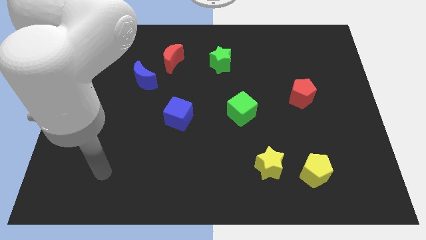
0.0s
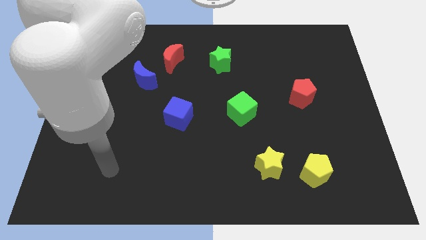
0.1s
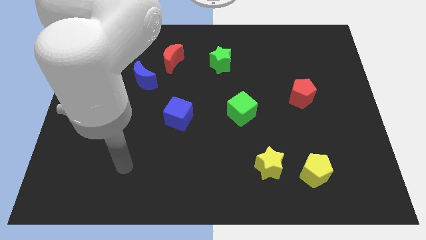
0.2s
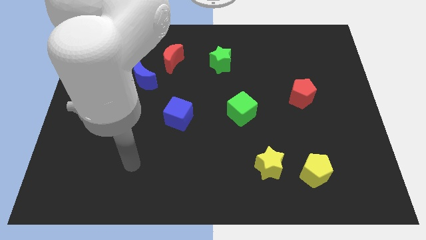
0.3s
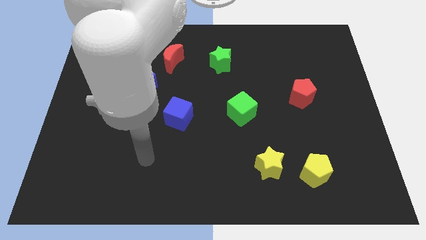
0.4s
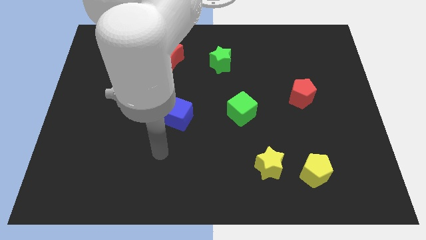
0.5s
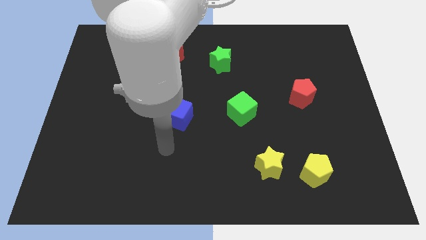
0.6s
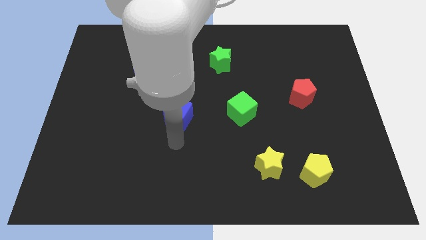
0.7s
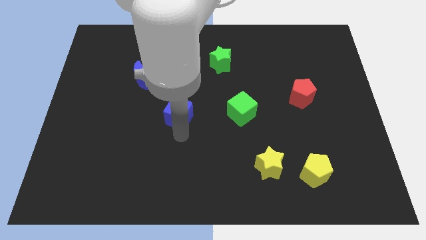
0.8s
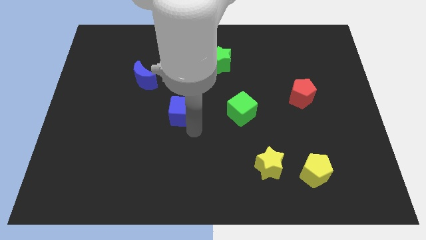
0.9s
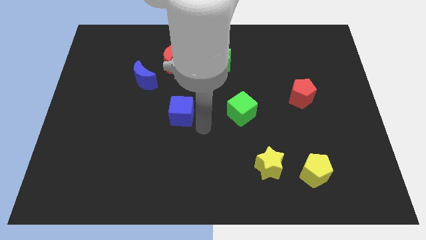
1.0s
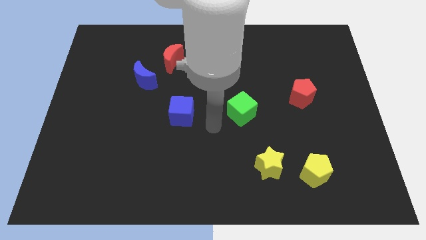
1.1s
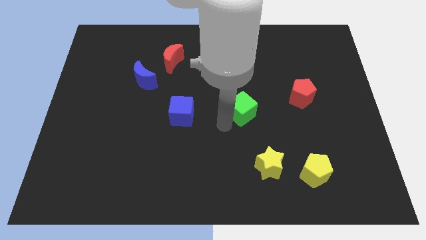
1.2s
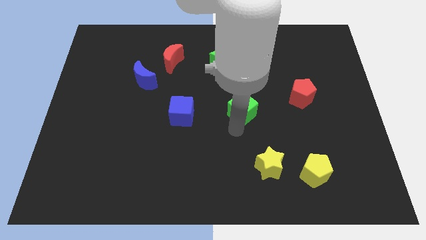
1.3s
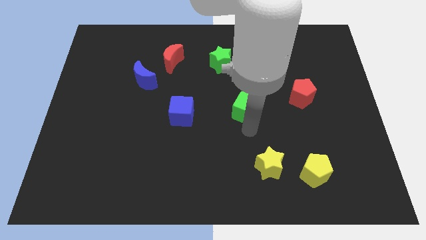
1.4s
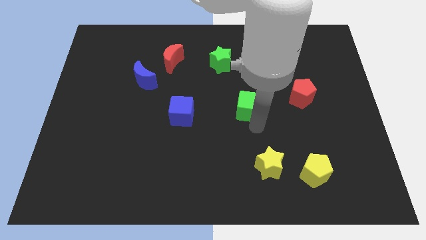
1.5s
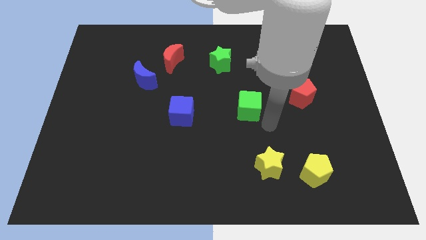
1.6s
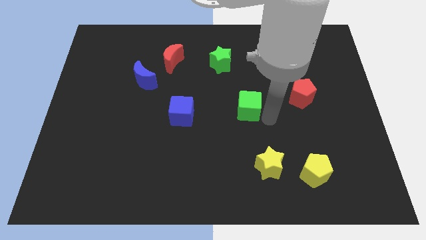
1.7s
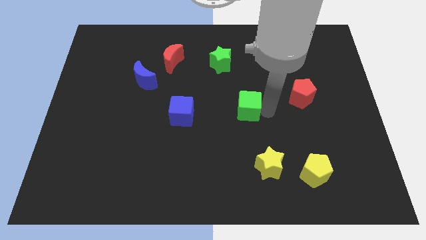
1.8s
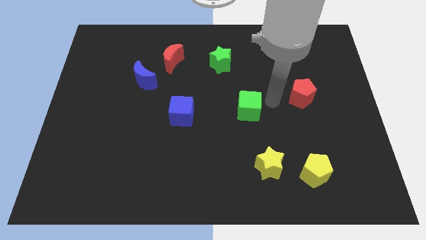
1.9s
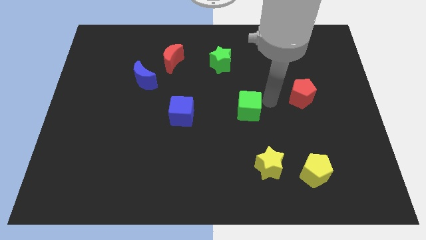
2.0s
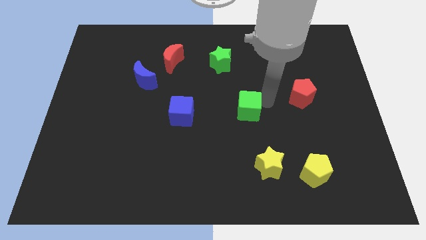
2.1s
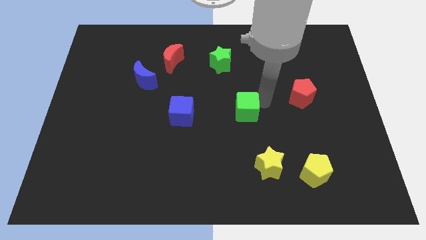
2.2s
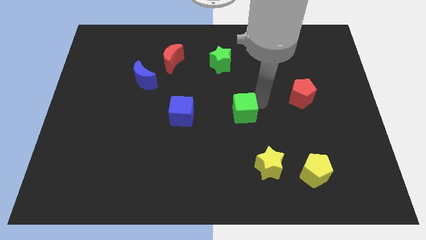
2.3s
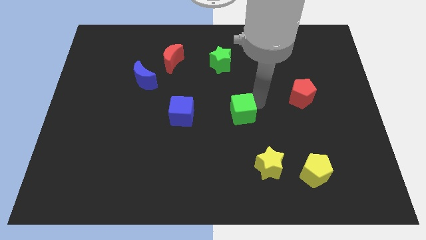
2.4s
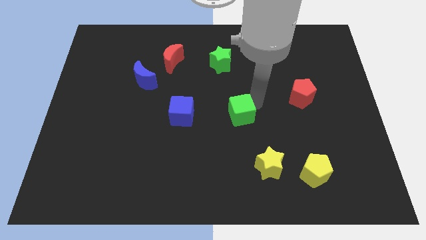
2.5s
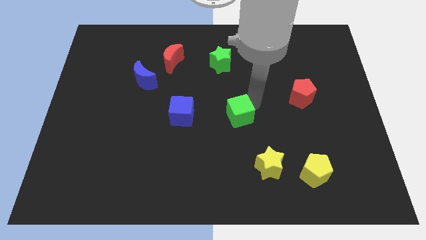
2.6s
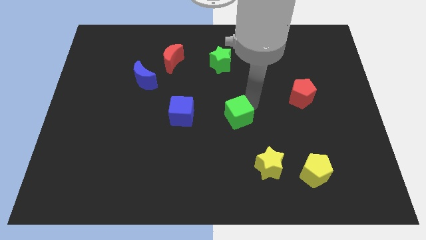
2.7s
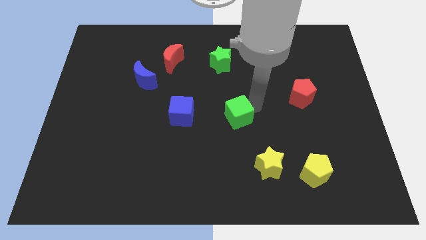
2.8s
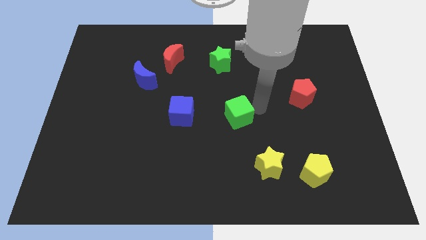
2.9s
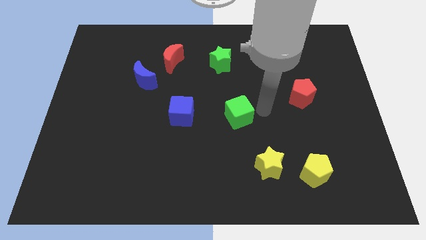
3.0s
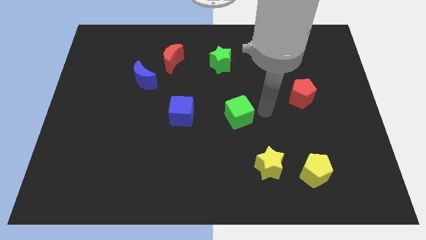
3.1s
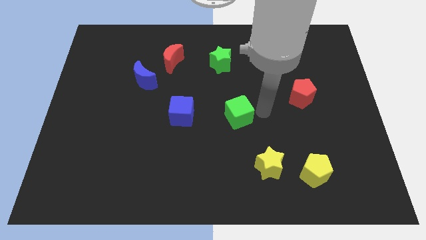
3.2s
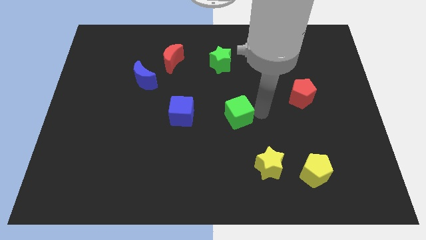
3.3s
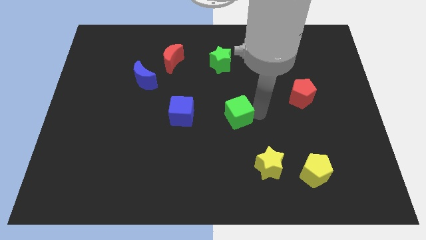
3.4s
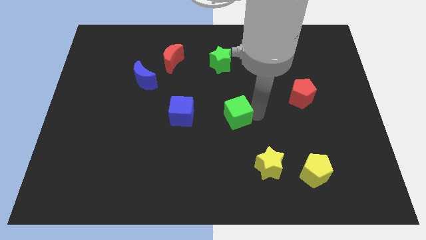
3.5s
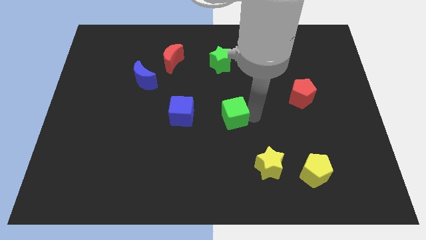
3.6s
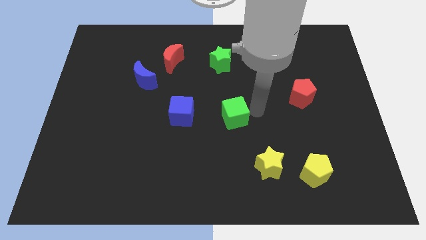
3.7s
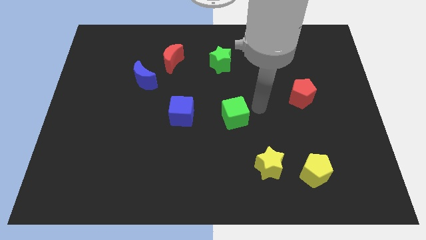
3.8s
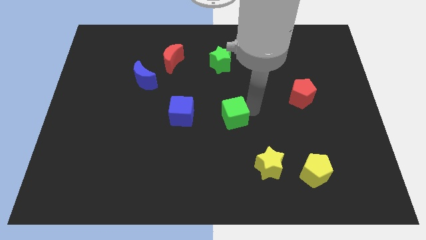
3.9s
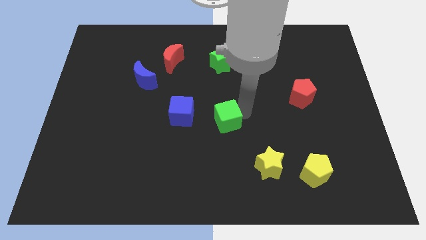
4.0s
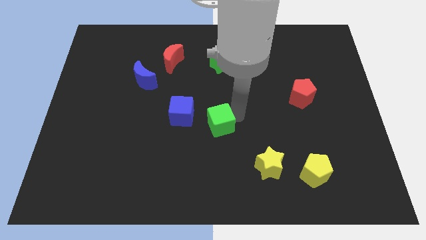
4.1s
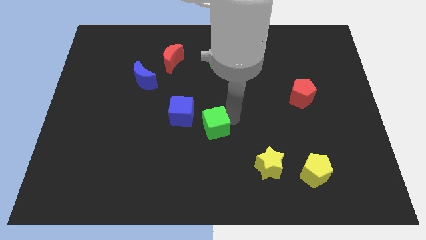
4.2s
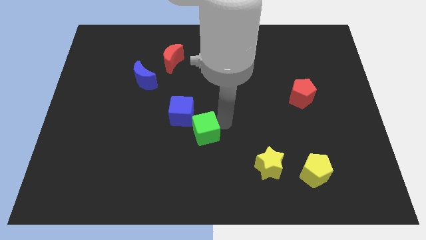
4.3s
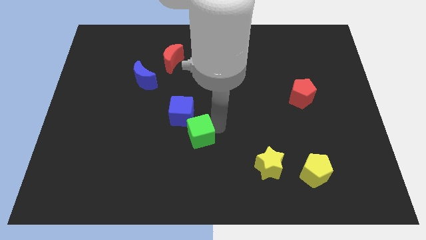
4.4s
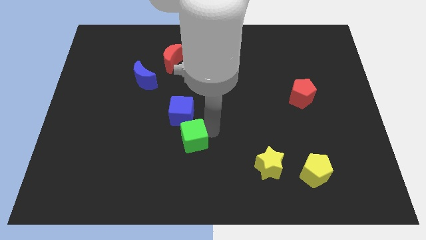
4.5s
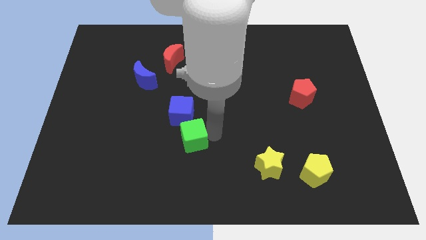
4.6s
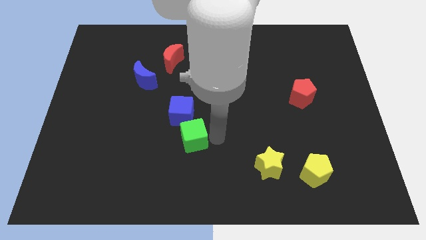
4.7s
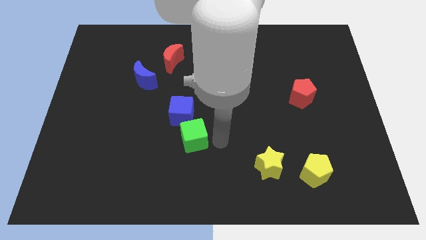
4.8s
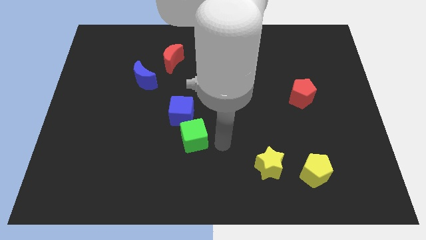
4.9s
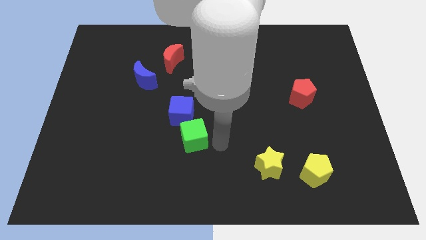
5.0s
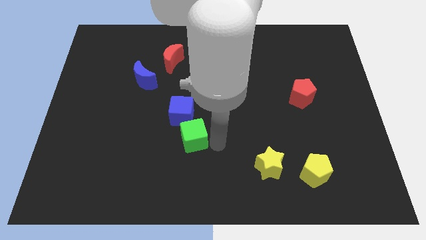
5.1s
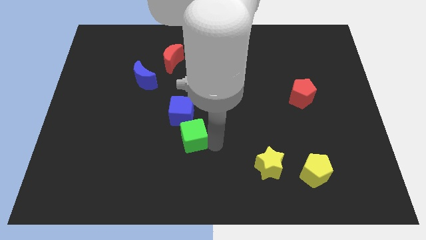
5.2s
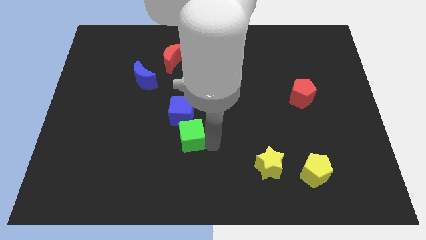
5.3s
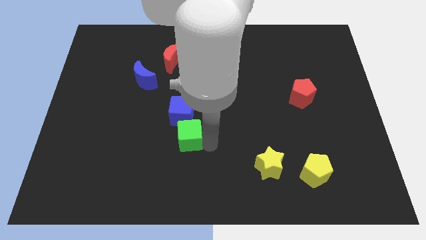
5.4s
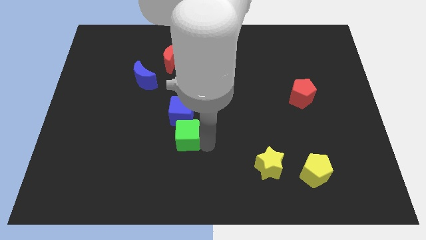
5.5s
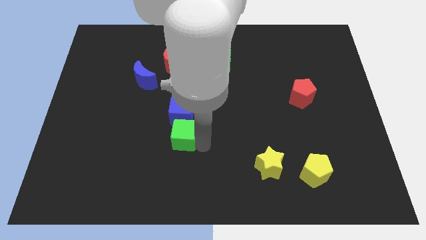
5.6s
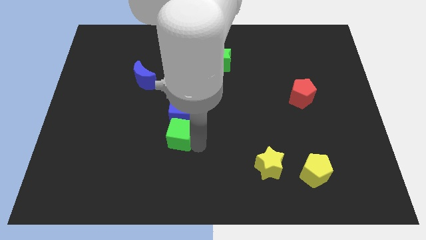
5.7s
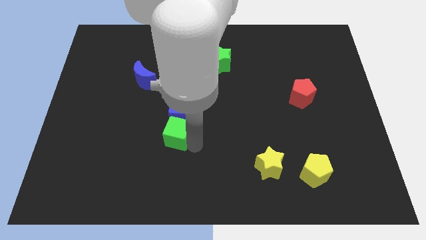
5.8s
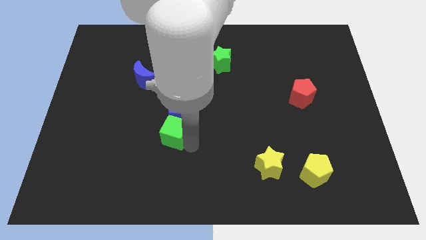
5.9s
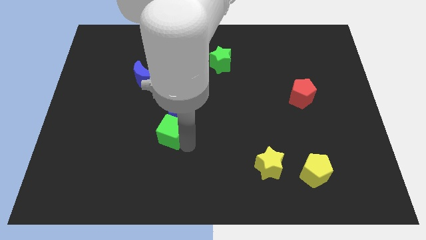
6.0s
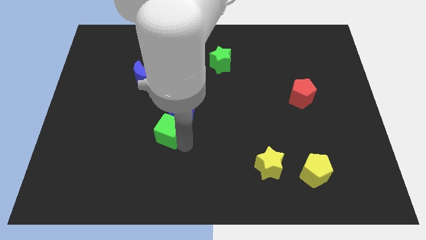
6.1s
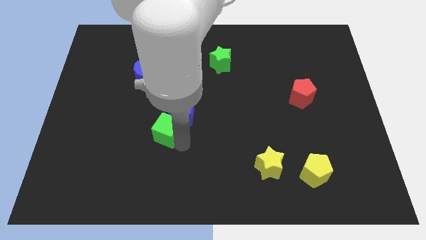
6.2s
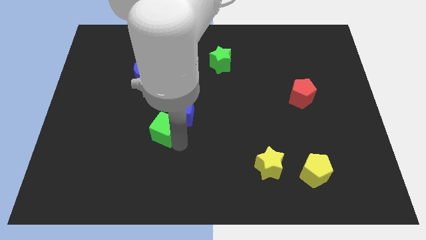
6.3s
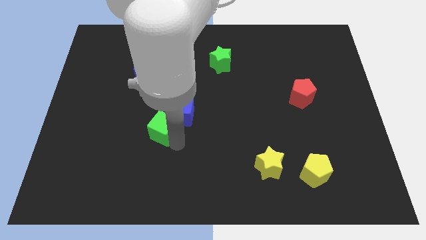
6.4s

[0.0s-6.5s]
push the green cube just left of the blue cube

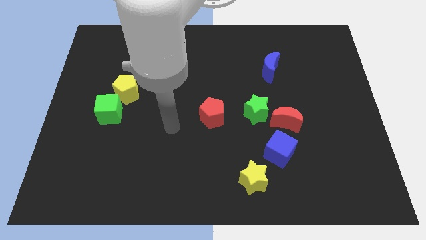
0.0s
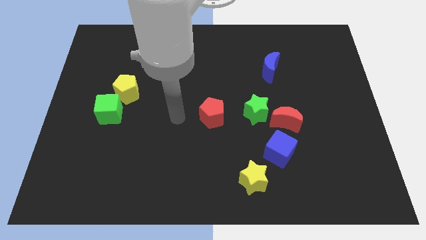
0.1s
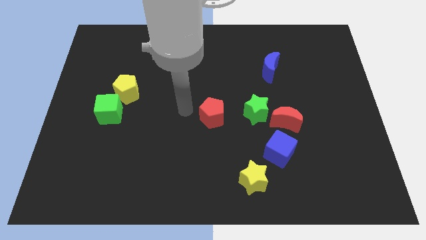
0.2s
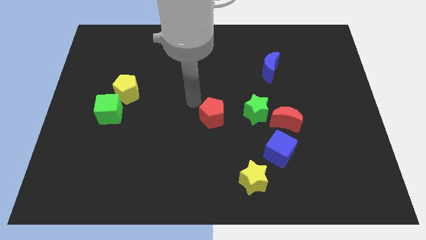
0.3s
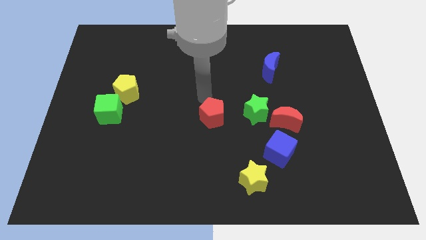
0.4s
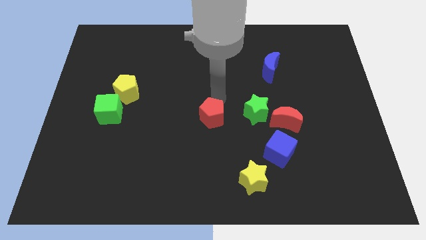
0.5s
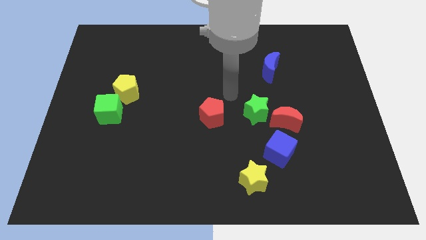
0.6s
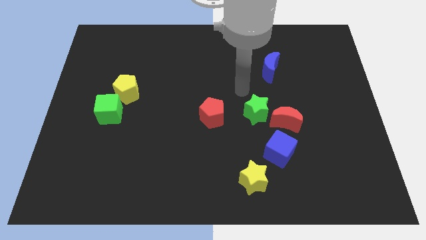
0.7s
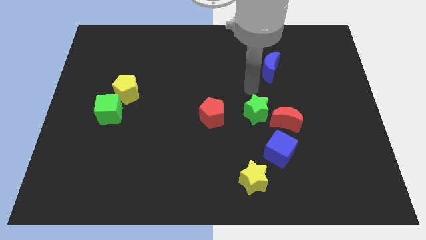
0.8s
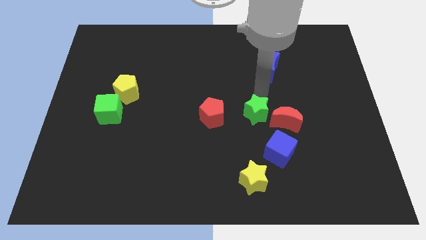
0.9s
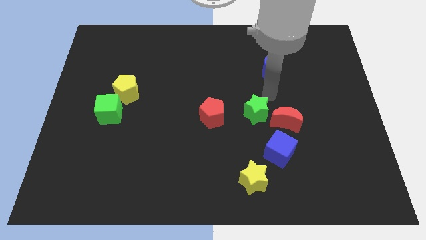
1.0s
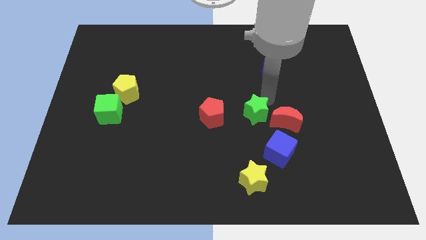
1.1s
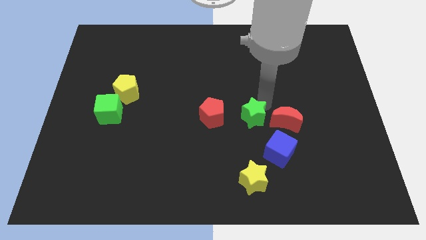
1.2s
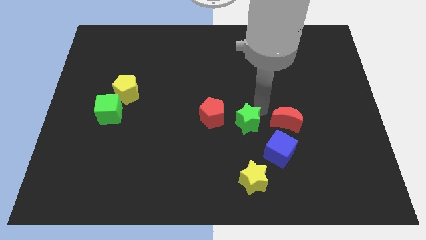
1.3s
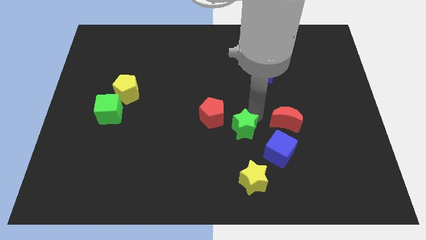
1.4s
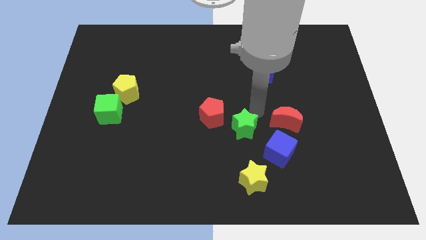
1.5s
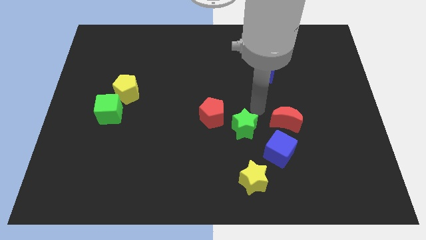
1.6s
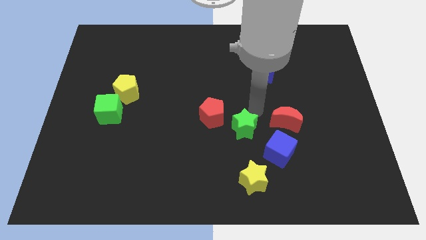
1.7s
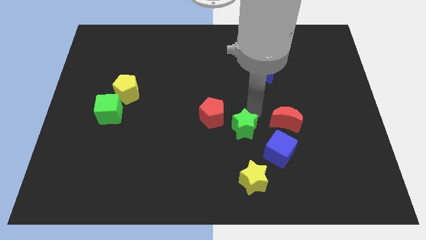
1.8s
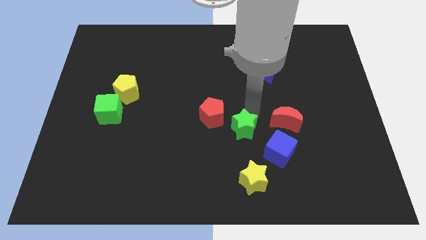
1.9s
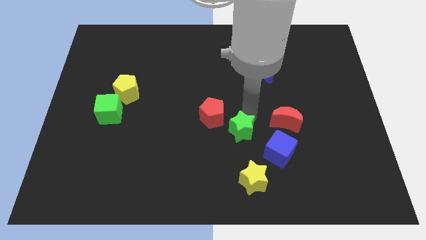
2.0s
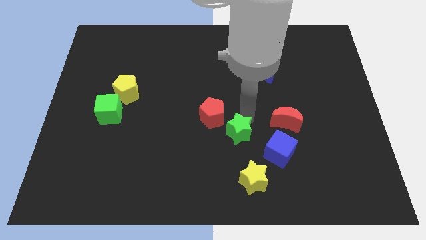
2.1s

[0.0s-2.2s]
put the green star just left of the blue cube
